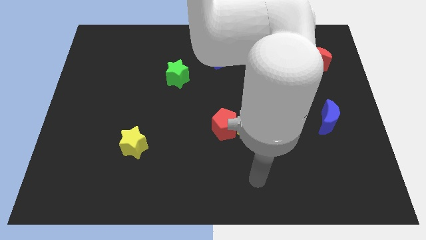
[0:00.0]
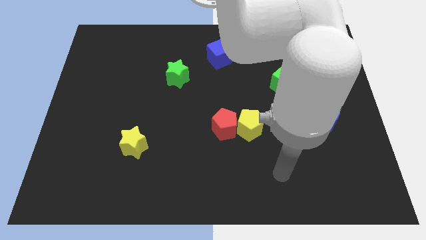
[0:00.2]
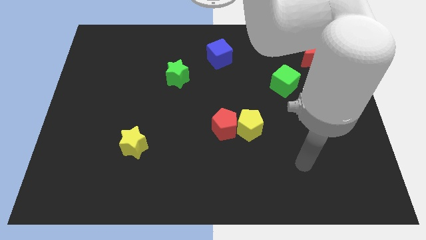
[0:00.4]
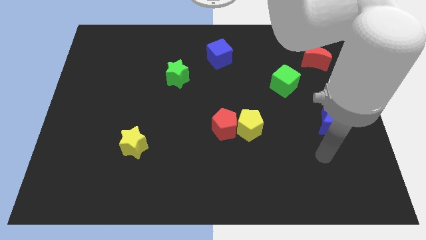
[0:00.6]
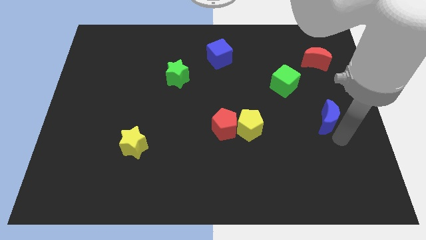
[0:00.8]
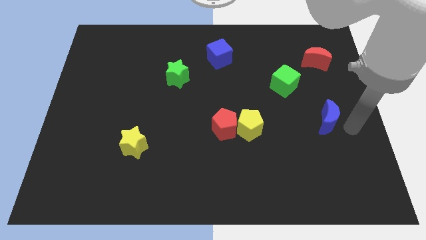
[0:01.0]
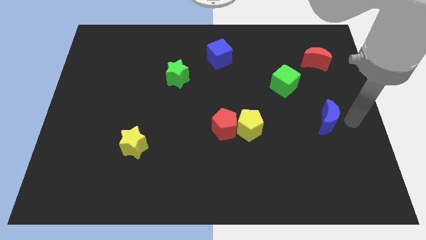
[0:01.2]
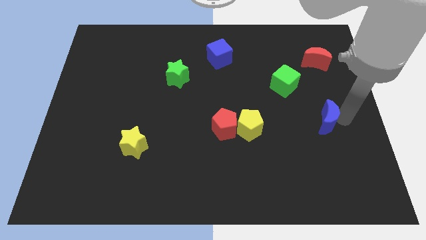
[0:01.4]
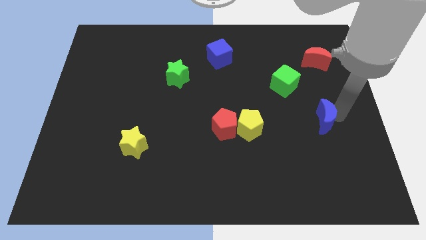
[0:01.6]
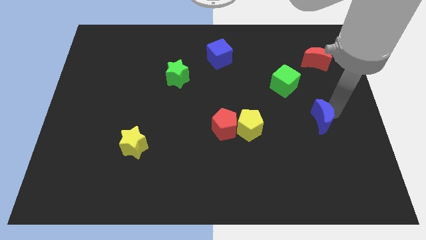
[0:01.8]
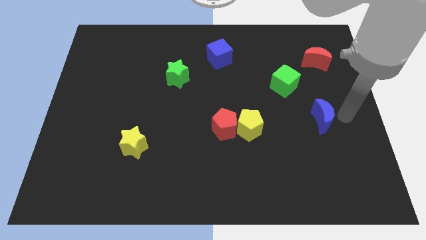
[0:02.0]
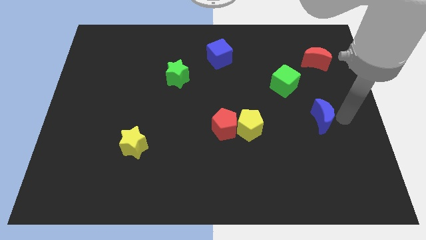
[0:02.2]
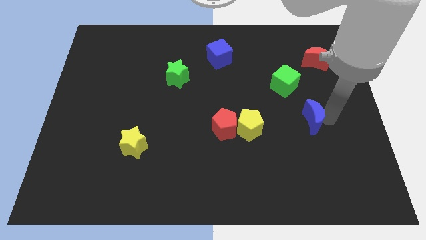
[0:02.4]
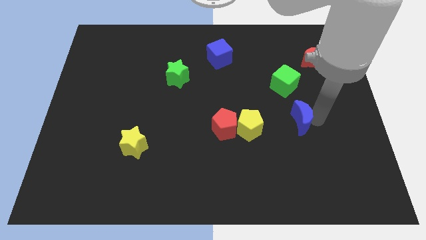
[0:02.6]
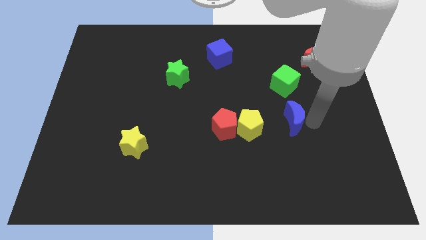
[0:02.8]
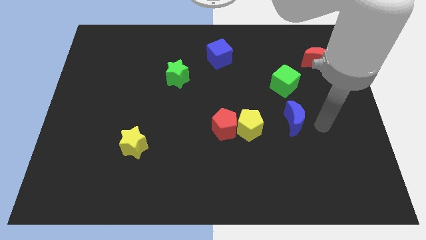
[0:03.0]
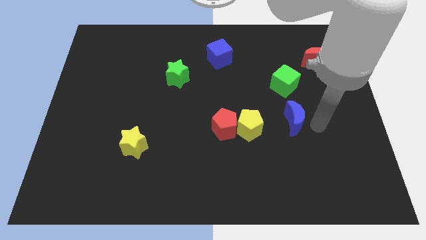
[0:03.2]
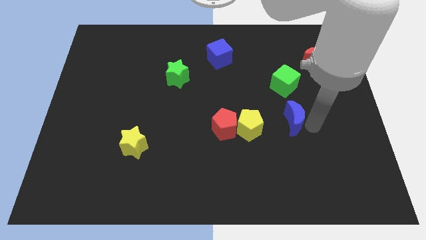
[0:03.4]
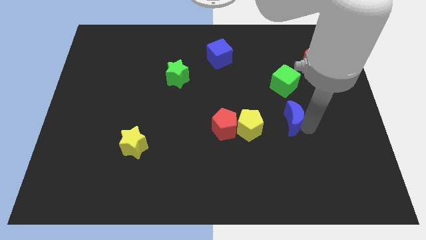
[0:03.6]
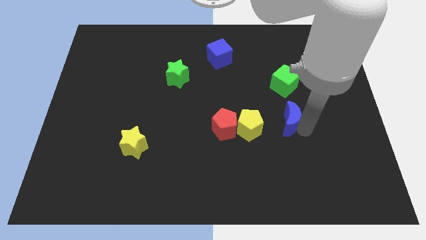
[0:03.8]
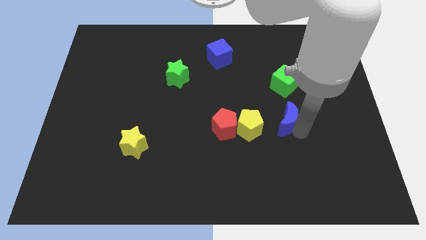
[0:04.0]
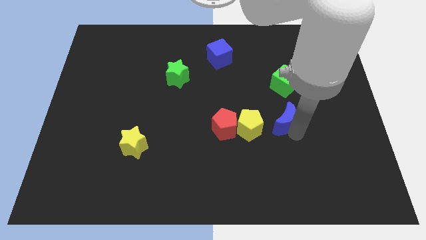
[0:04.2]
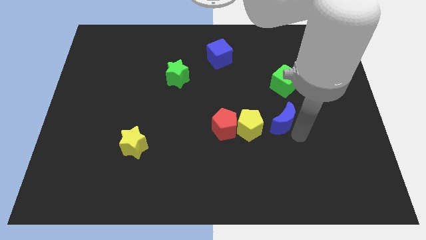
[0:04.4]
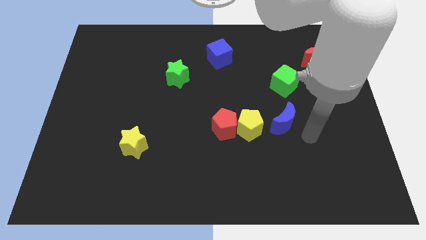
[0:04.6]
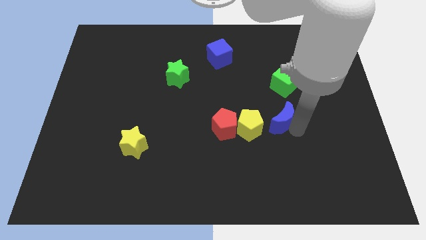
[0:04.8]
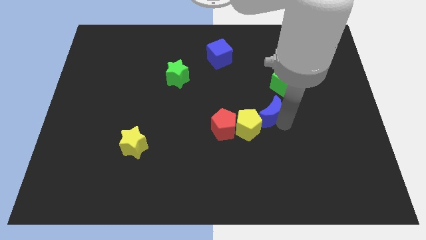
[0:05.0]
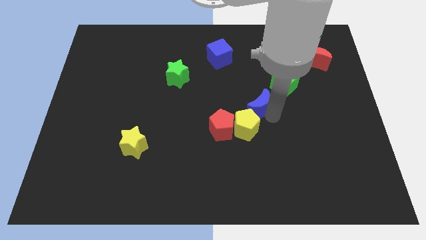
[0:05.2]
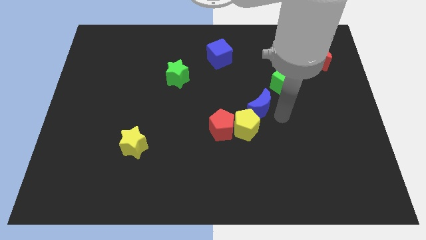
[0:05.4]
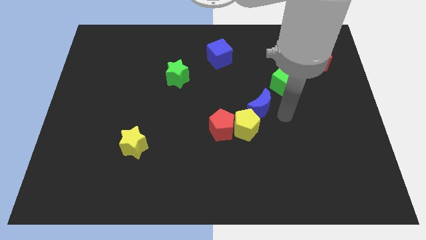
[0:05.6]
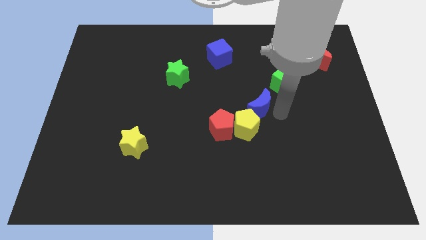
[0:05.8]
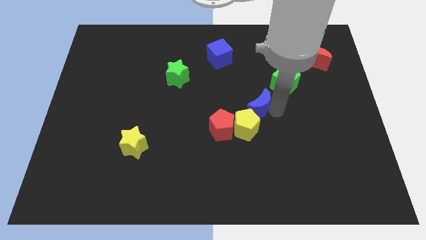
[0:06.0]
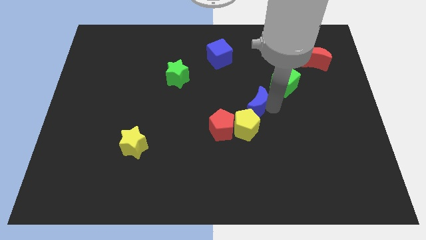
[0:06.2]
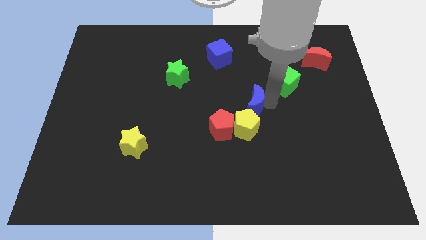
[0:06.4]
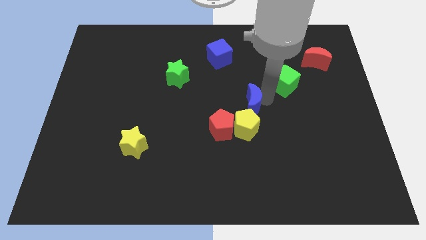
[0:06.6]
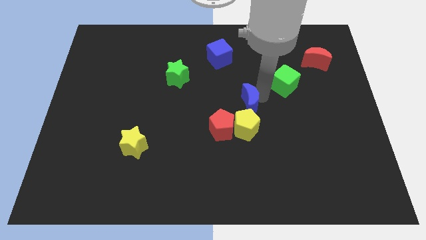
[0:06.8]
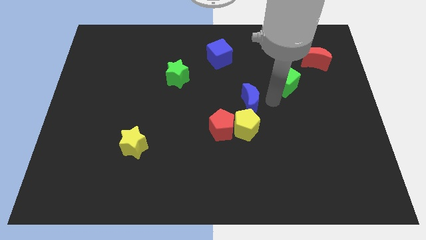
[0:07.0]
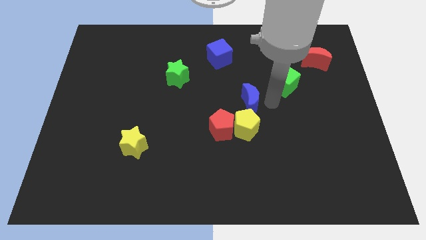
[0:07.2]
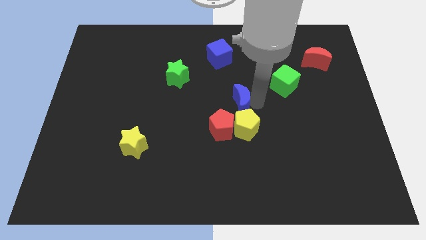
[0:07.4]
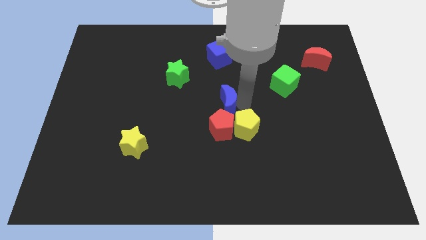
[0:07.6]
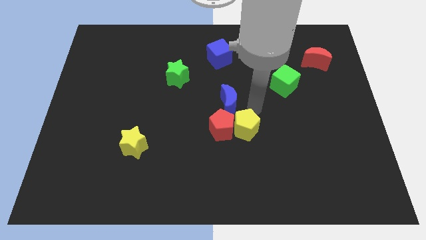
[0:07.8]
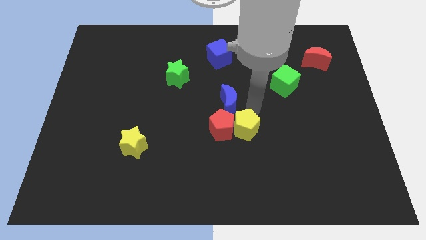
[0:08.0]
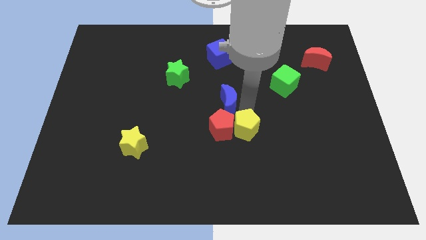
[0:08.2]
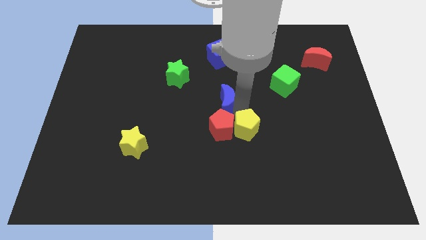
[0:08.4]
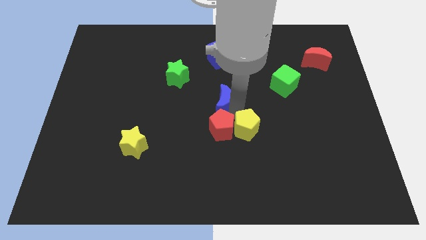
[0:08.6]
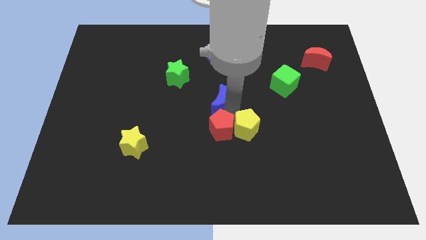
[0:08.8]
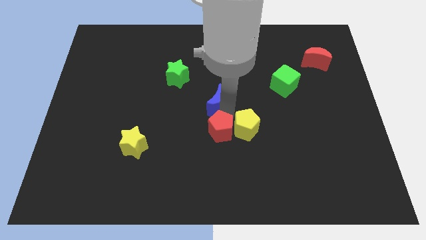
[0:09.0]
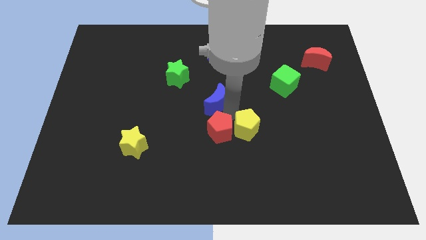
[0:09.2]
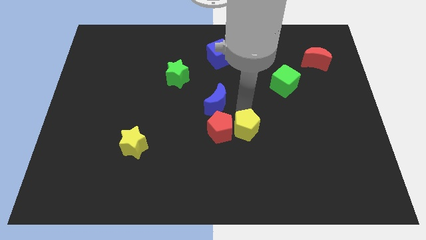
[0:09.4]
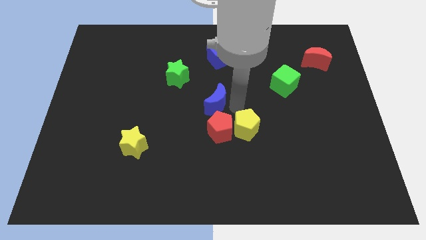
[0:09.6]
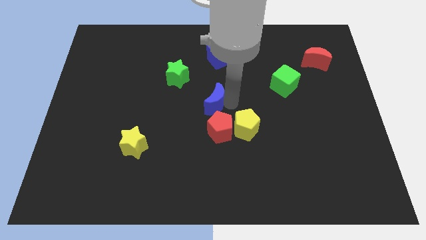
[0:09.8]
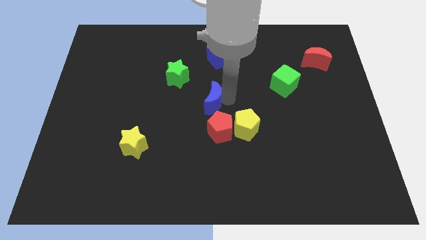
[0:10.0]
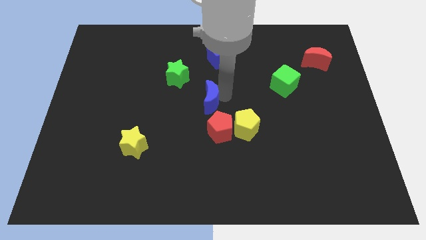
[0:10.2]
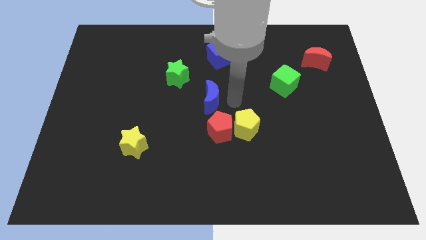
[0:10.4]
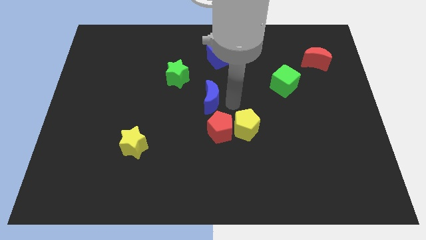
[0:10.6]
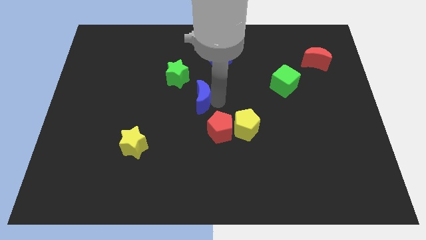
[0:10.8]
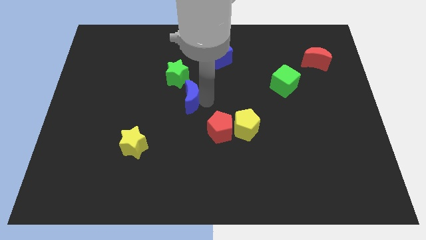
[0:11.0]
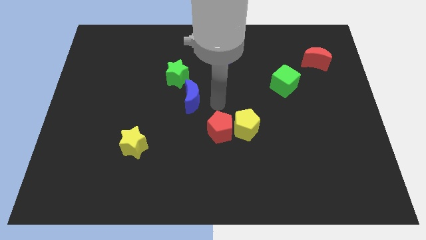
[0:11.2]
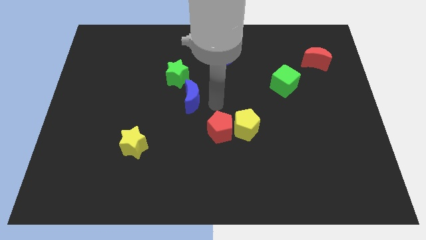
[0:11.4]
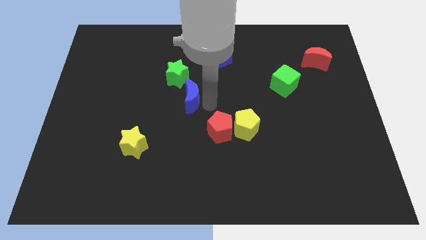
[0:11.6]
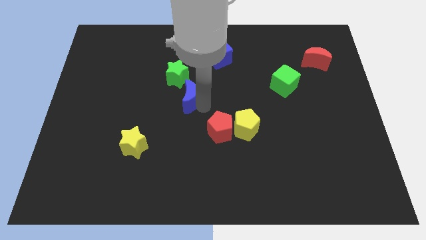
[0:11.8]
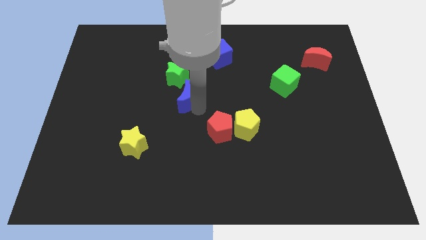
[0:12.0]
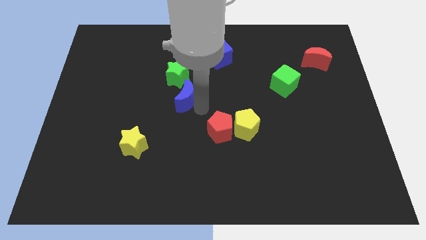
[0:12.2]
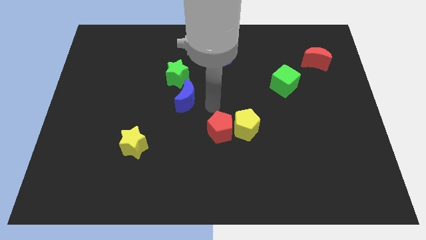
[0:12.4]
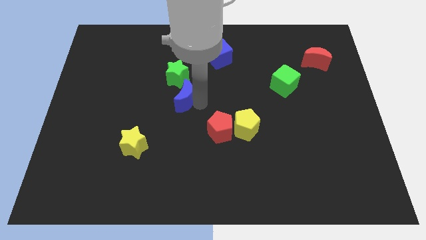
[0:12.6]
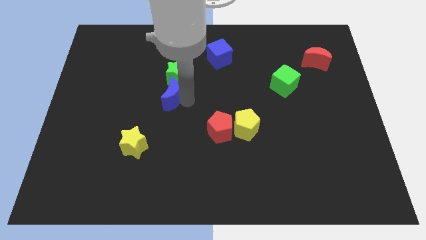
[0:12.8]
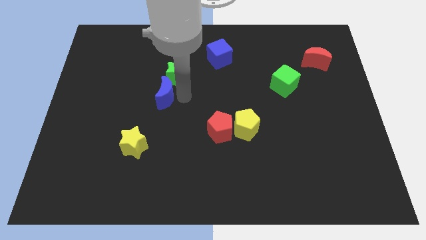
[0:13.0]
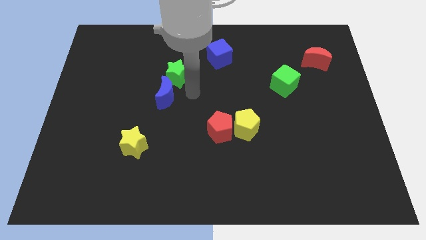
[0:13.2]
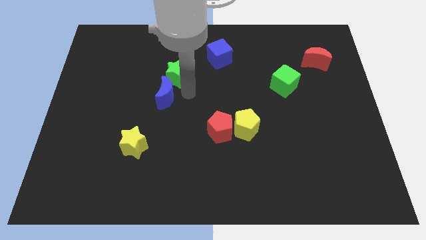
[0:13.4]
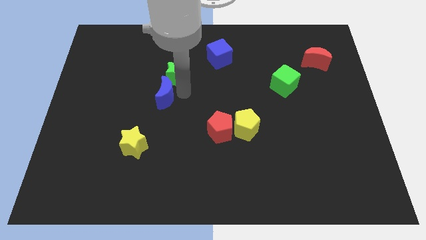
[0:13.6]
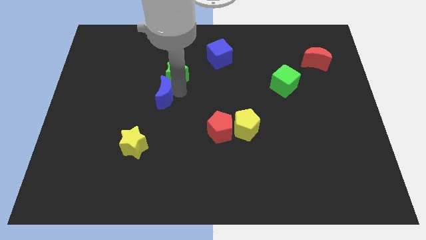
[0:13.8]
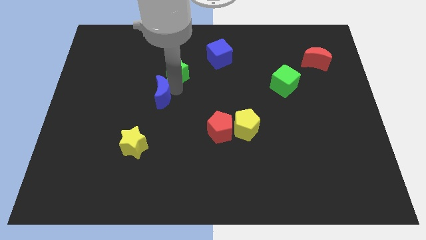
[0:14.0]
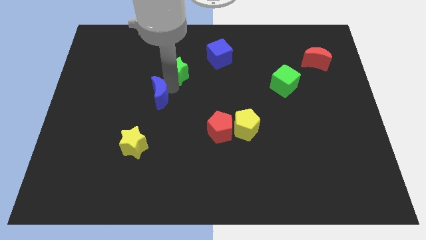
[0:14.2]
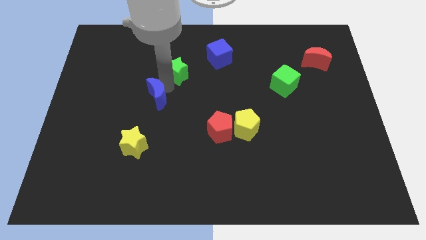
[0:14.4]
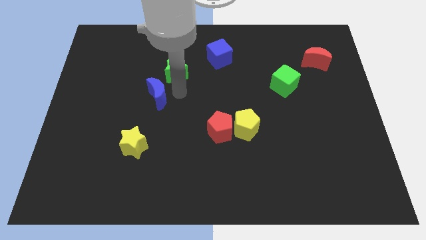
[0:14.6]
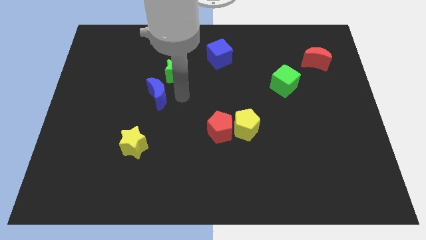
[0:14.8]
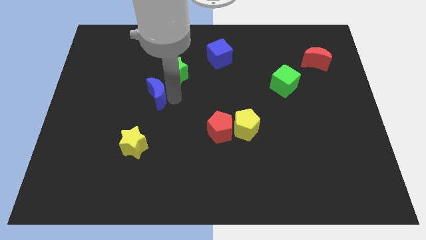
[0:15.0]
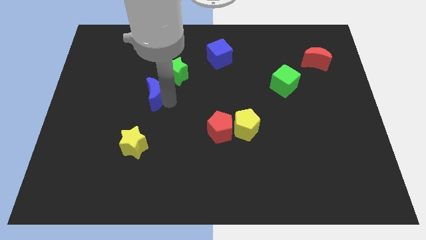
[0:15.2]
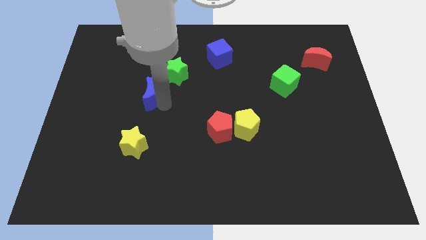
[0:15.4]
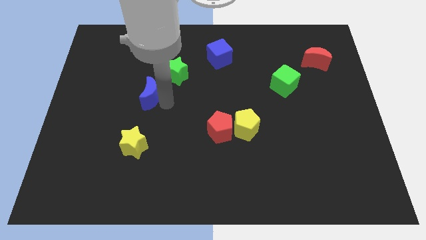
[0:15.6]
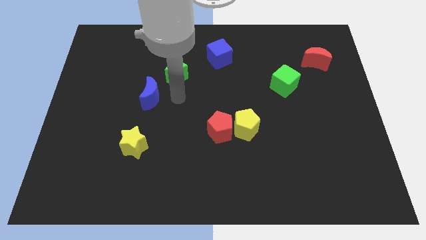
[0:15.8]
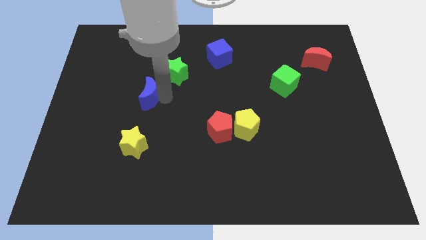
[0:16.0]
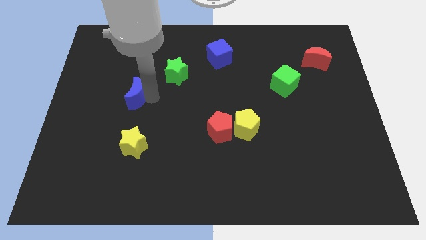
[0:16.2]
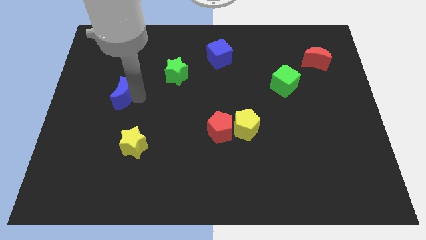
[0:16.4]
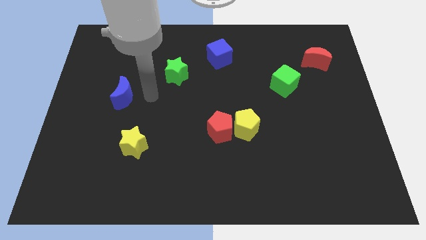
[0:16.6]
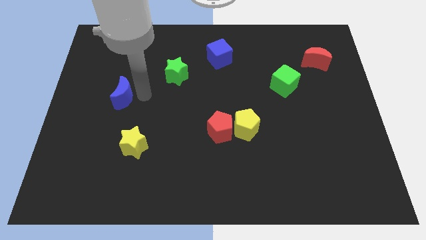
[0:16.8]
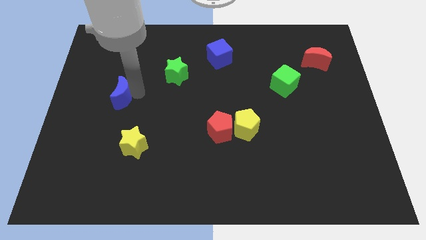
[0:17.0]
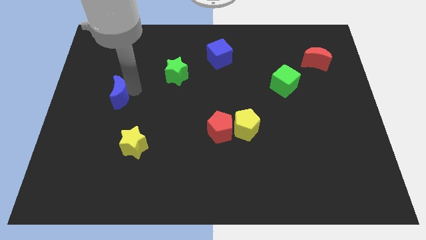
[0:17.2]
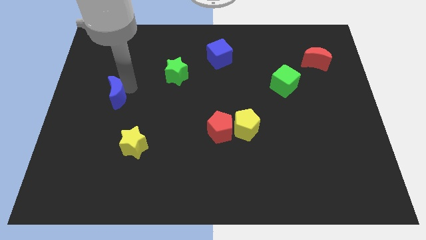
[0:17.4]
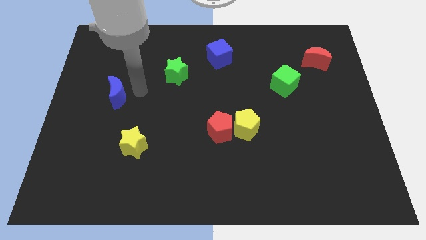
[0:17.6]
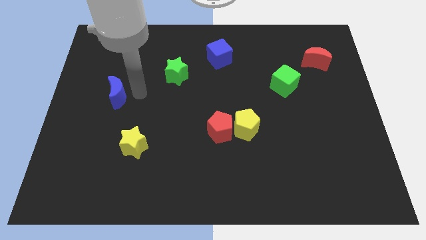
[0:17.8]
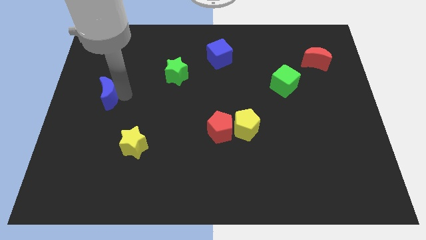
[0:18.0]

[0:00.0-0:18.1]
slide the blue moon to the left side
